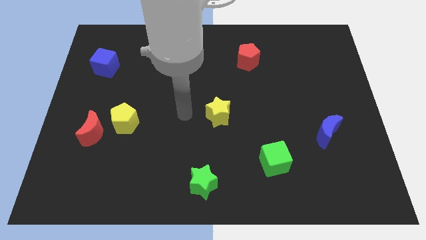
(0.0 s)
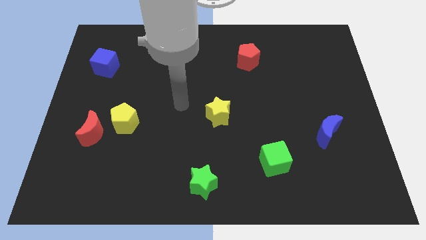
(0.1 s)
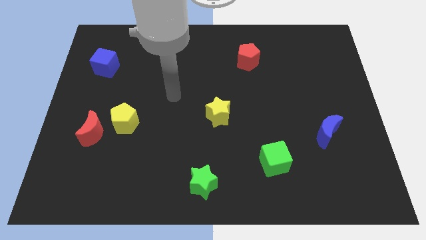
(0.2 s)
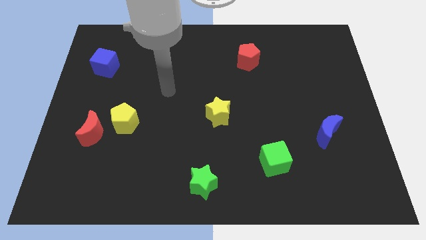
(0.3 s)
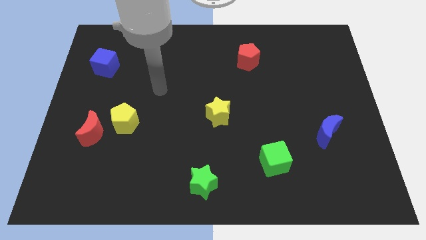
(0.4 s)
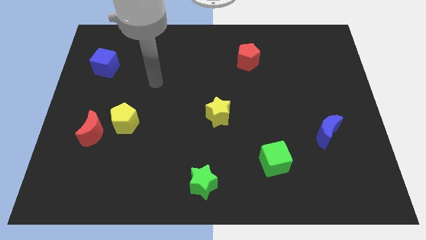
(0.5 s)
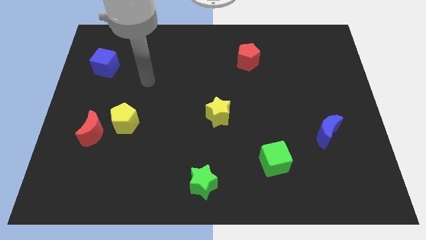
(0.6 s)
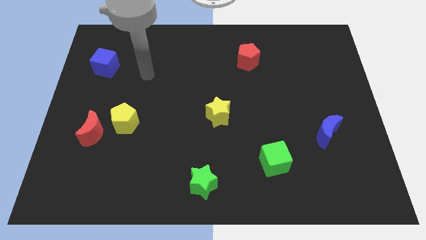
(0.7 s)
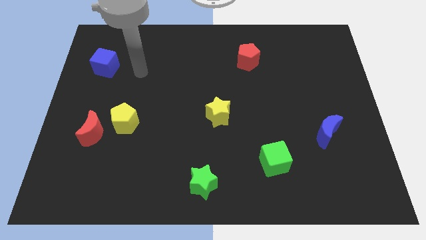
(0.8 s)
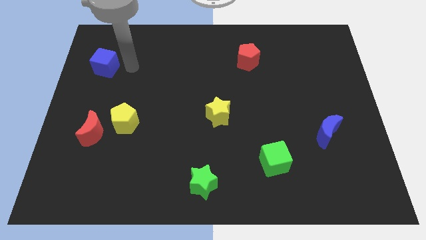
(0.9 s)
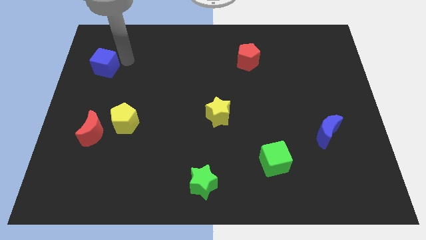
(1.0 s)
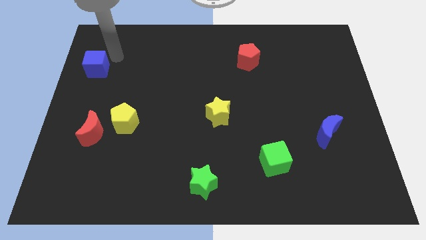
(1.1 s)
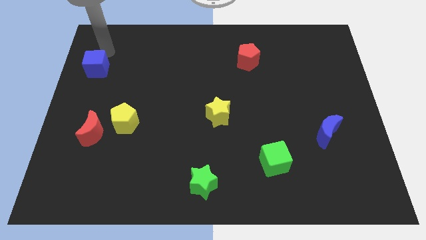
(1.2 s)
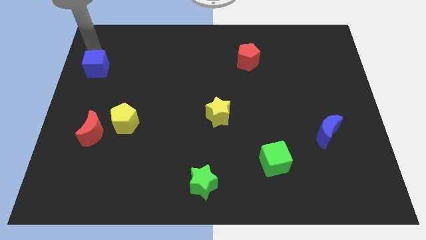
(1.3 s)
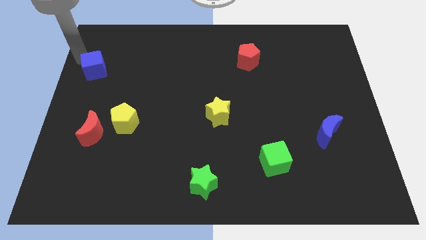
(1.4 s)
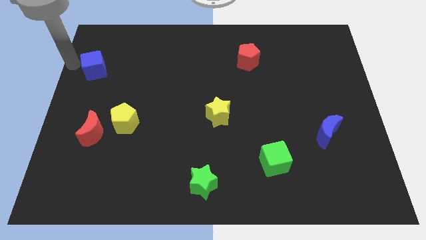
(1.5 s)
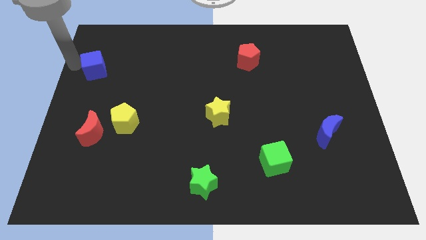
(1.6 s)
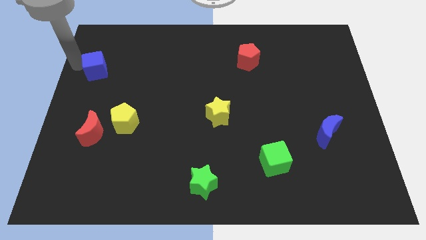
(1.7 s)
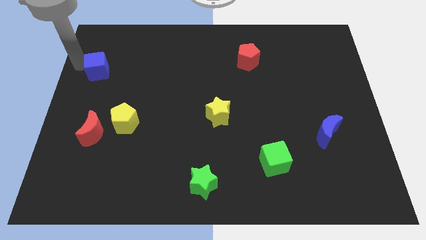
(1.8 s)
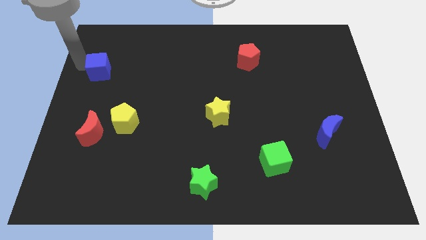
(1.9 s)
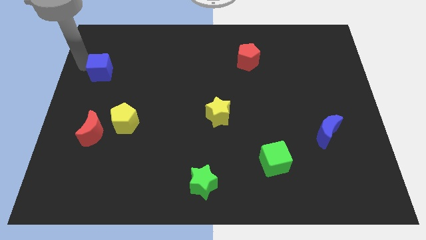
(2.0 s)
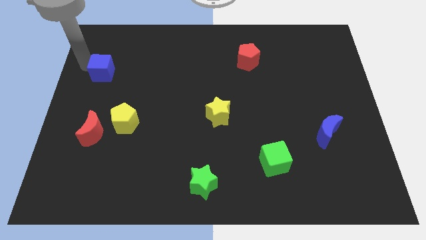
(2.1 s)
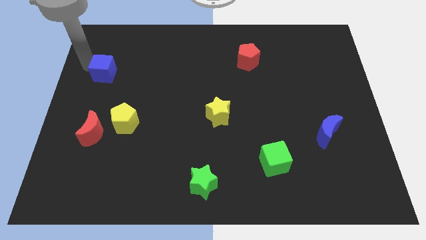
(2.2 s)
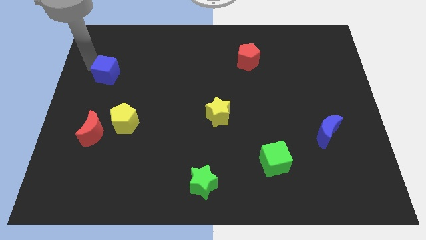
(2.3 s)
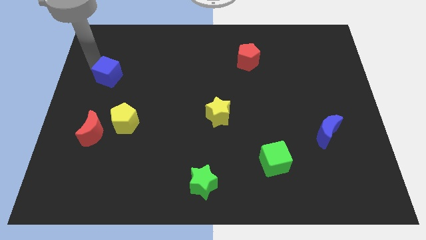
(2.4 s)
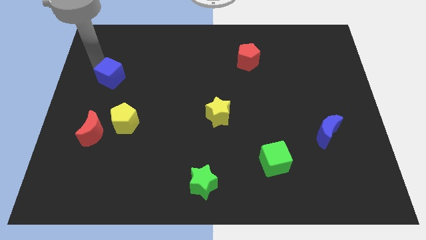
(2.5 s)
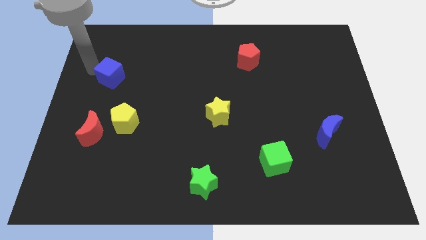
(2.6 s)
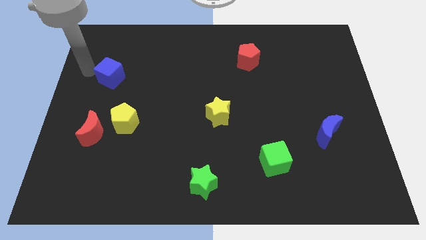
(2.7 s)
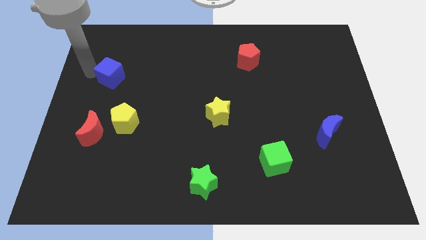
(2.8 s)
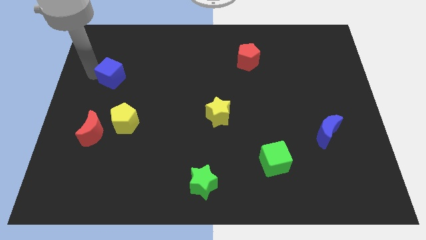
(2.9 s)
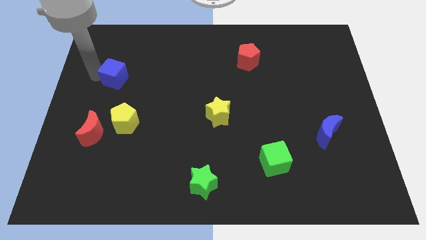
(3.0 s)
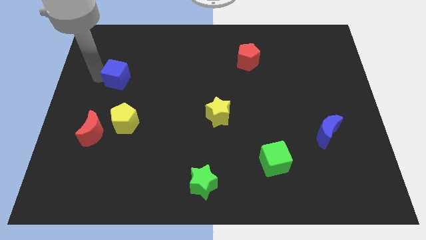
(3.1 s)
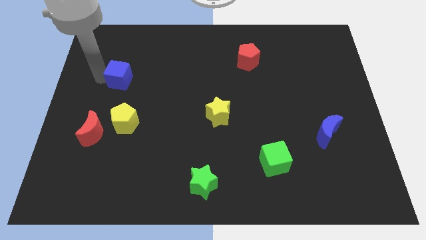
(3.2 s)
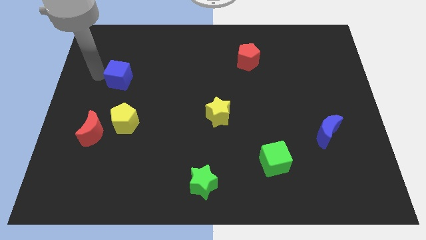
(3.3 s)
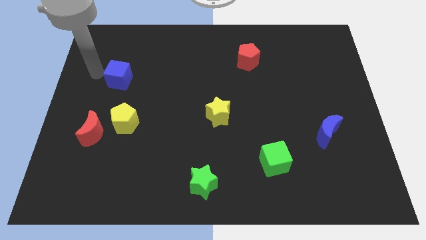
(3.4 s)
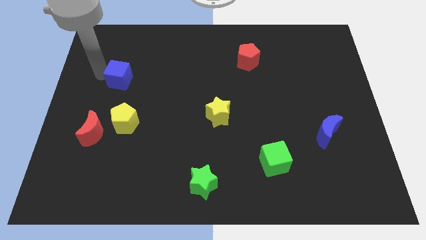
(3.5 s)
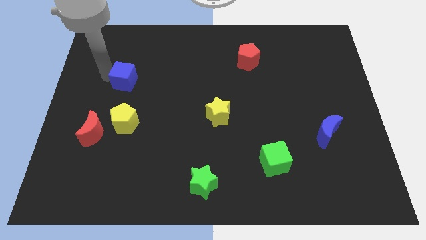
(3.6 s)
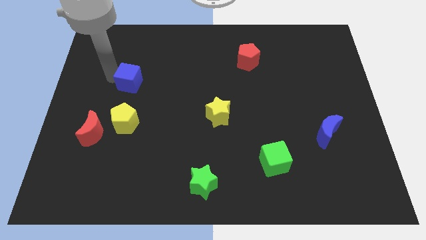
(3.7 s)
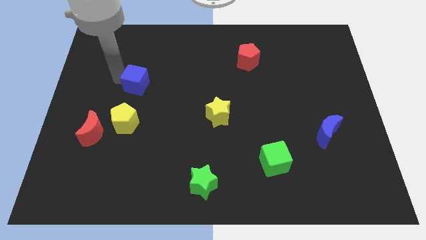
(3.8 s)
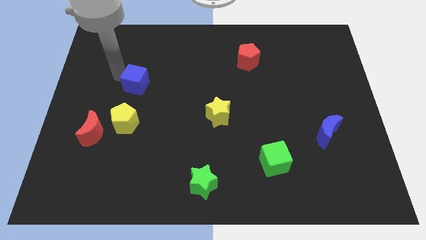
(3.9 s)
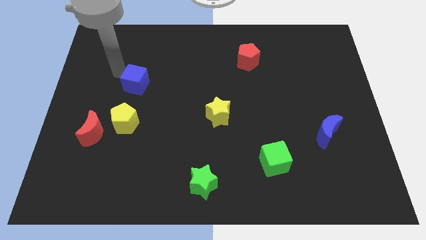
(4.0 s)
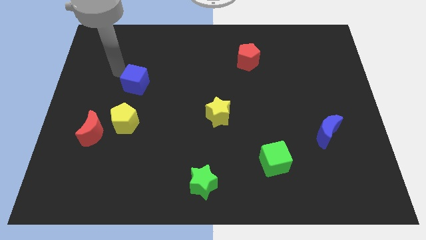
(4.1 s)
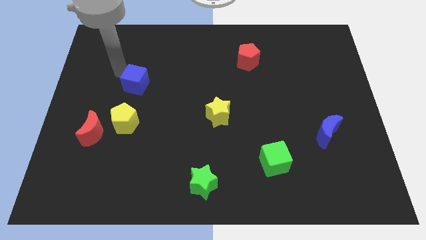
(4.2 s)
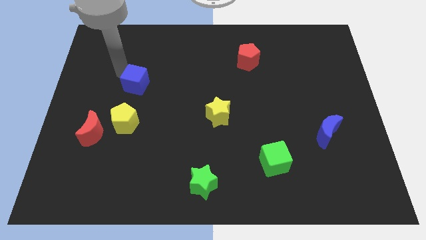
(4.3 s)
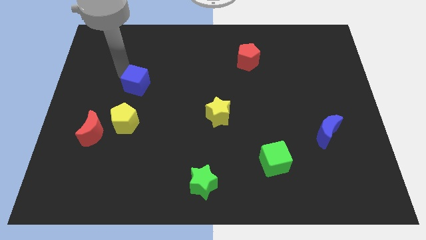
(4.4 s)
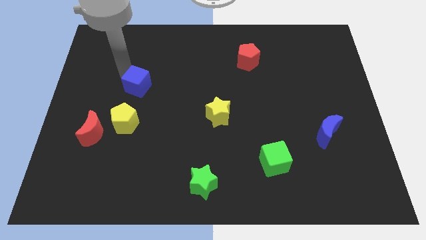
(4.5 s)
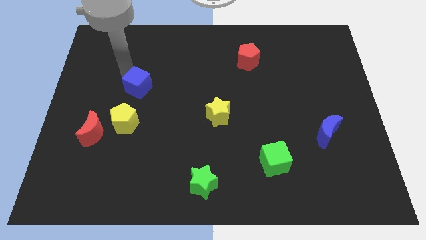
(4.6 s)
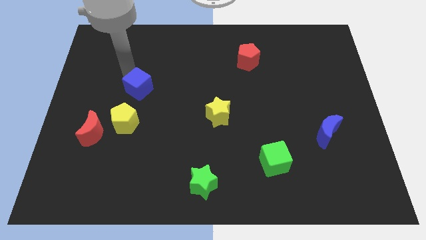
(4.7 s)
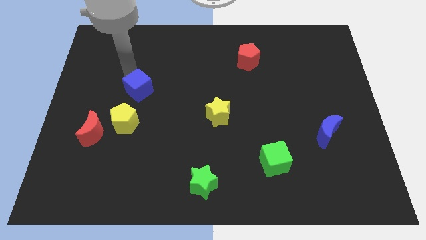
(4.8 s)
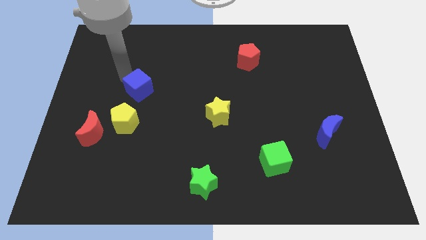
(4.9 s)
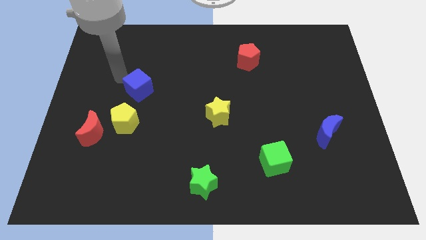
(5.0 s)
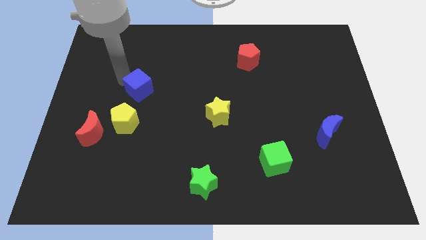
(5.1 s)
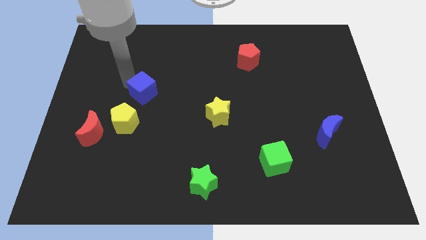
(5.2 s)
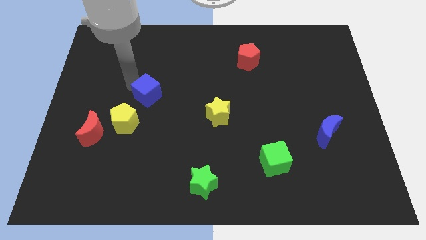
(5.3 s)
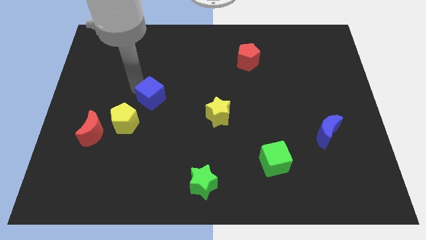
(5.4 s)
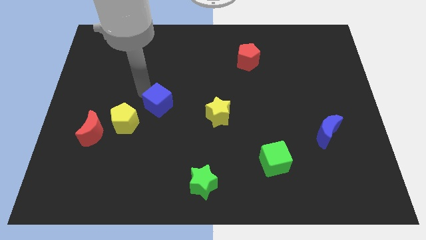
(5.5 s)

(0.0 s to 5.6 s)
move the blue cube just left of the yellow star

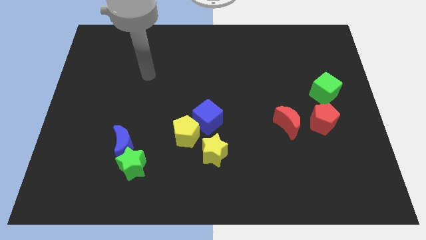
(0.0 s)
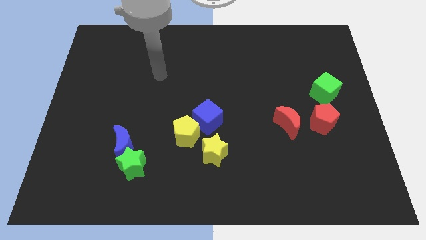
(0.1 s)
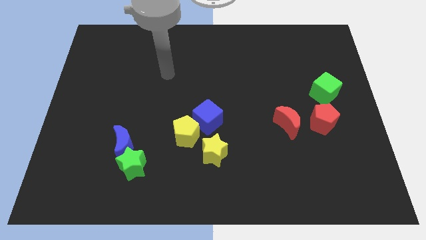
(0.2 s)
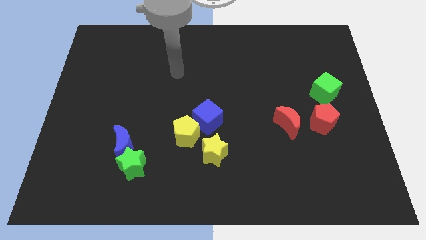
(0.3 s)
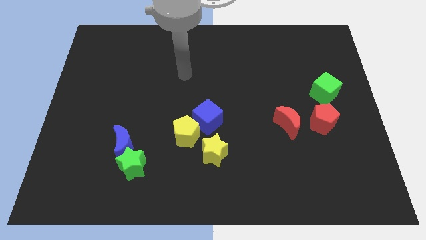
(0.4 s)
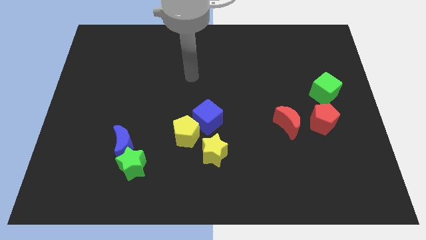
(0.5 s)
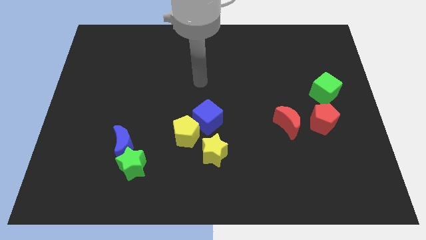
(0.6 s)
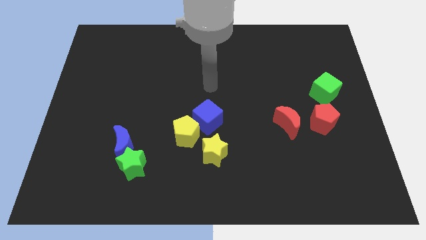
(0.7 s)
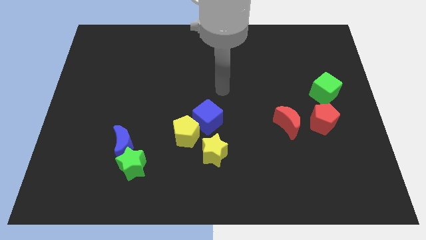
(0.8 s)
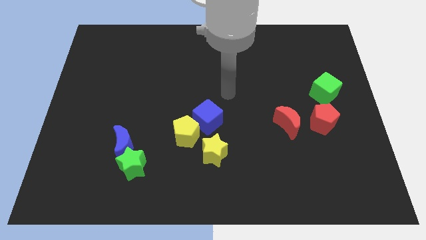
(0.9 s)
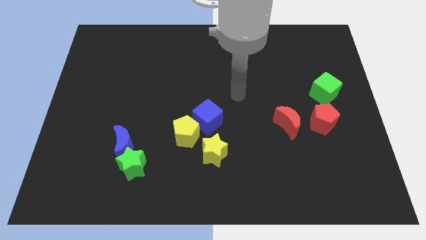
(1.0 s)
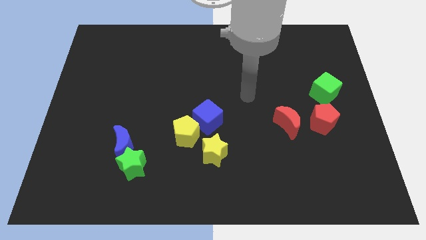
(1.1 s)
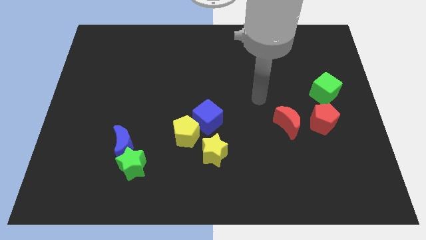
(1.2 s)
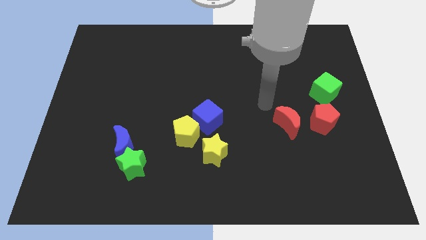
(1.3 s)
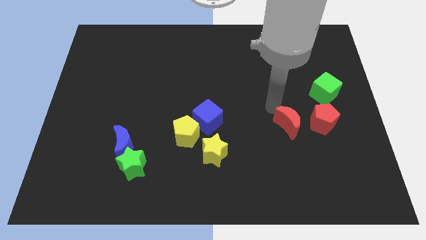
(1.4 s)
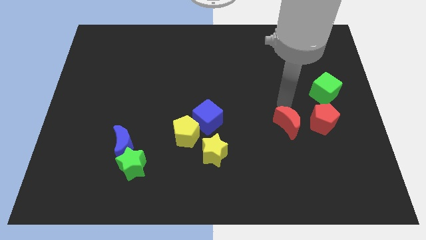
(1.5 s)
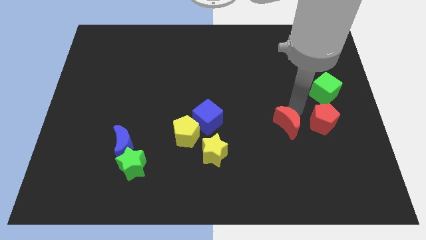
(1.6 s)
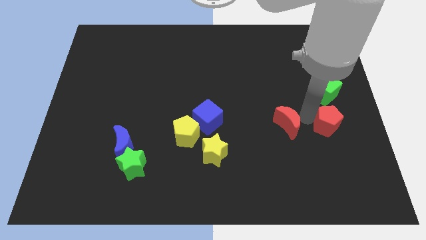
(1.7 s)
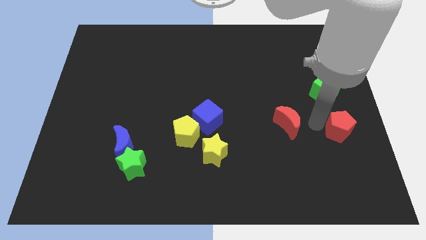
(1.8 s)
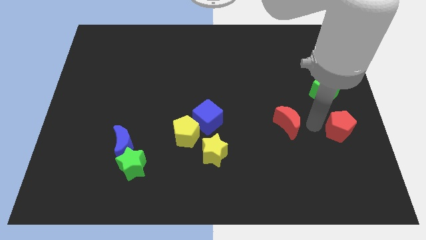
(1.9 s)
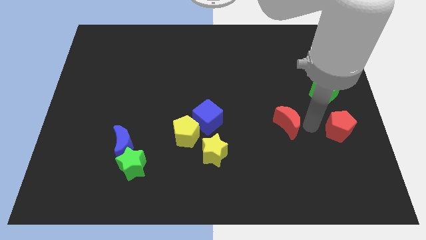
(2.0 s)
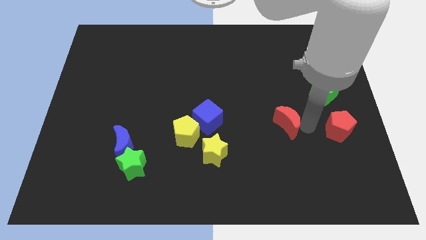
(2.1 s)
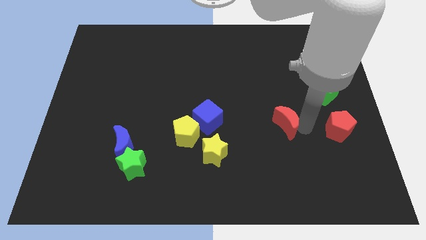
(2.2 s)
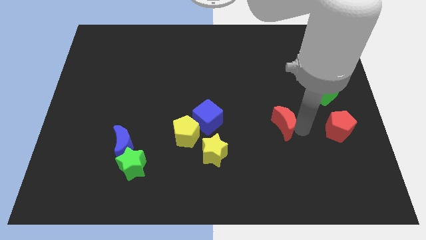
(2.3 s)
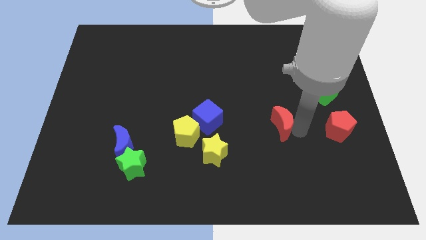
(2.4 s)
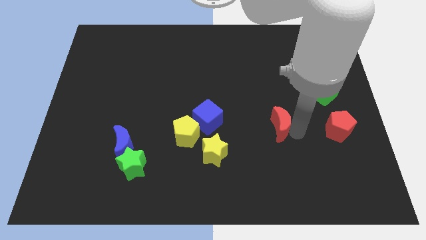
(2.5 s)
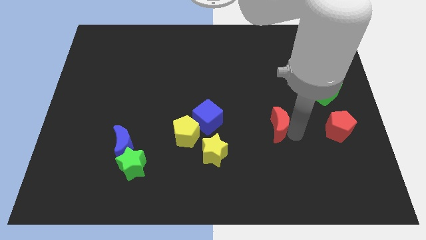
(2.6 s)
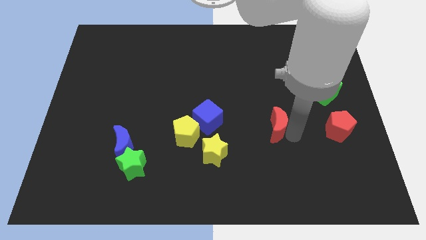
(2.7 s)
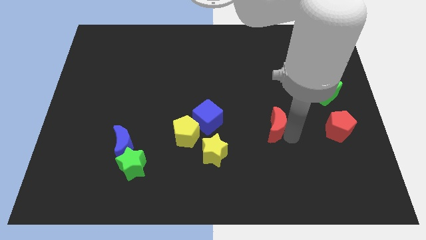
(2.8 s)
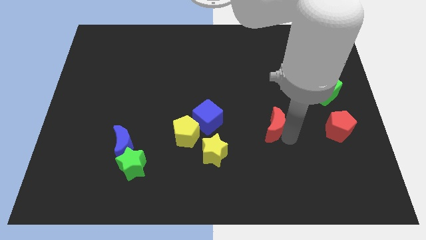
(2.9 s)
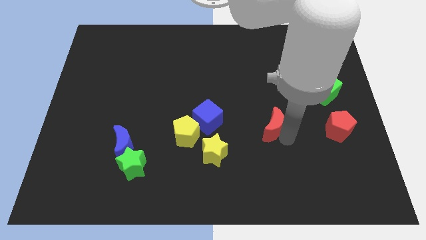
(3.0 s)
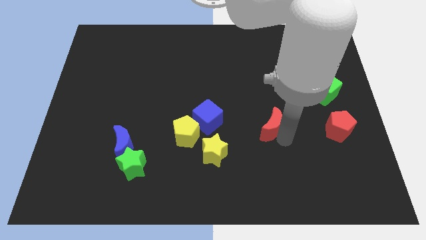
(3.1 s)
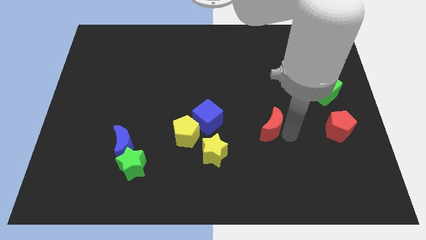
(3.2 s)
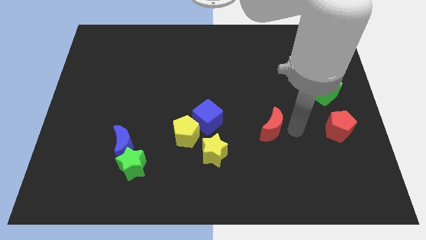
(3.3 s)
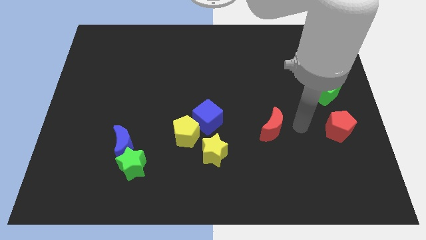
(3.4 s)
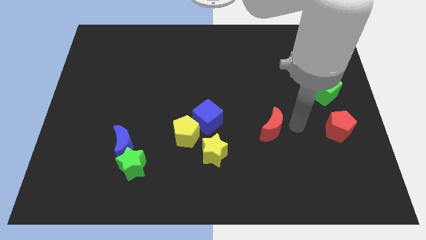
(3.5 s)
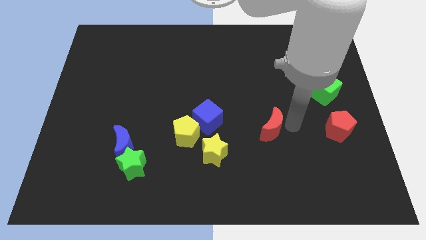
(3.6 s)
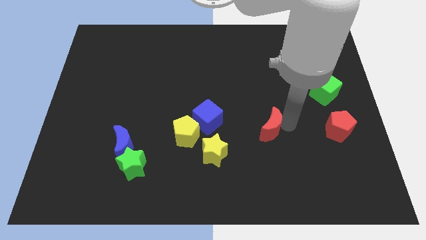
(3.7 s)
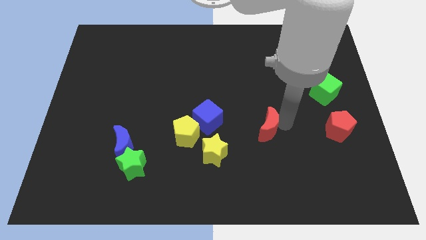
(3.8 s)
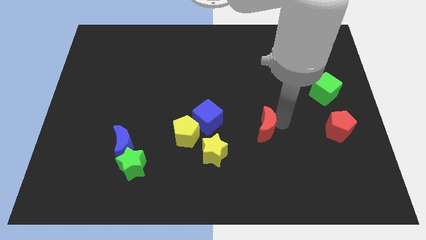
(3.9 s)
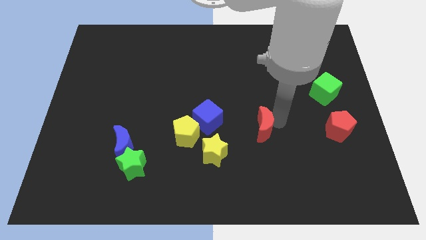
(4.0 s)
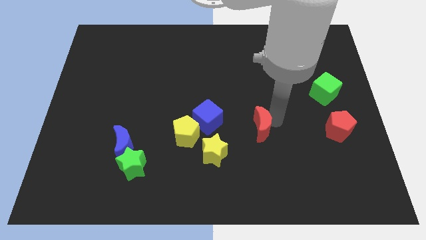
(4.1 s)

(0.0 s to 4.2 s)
slide the red moon to the top right of the yellow star
